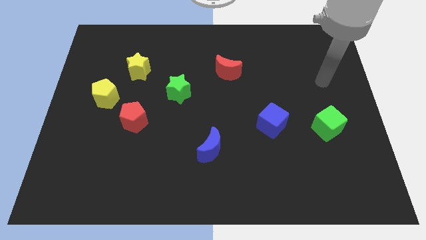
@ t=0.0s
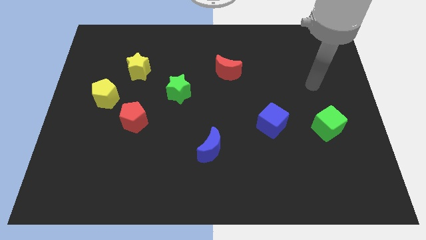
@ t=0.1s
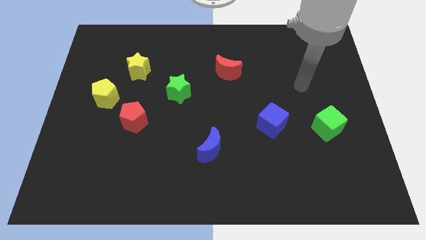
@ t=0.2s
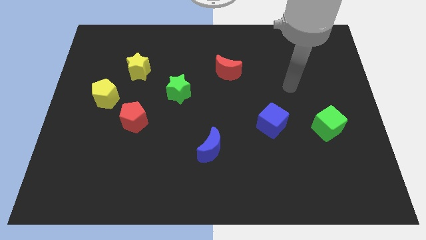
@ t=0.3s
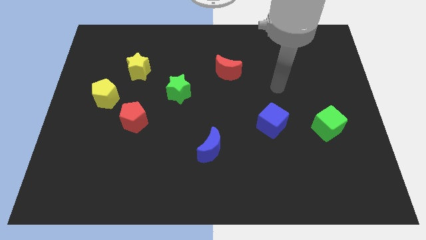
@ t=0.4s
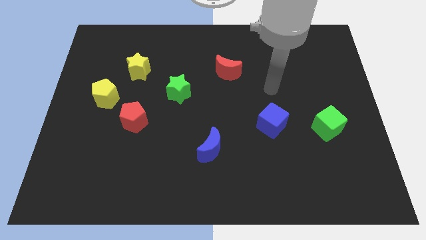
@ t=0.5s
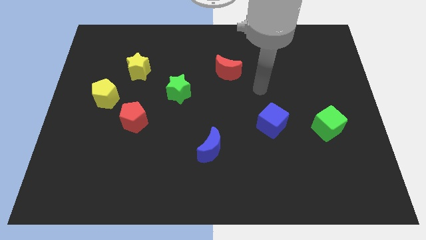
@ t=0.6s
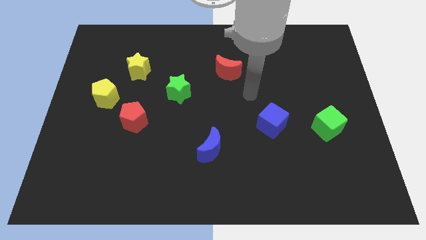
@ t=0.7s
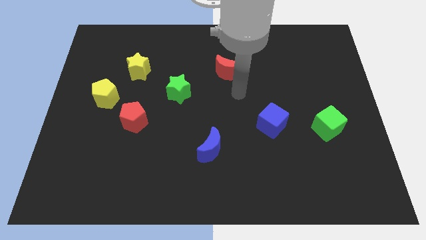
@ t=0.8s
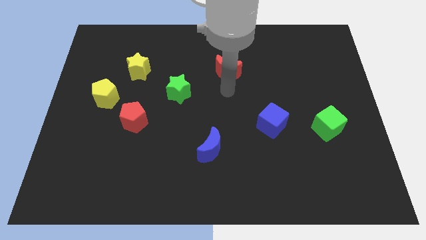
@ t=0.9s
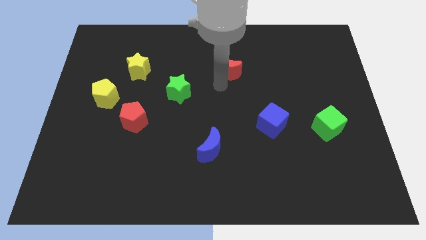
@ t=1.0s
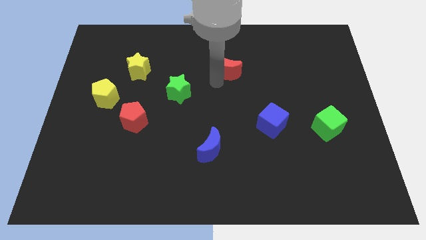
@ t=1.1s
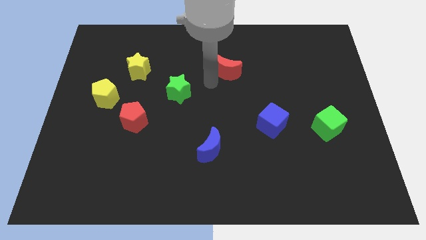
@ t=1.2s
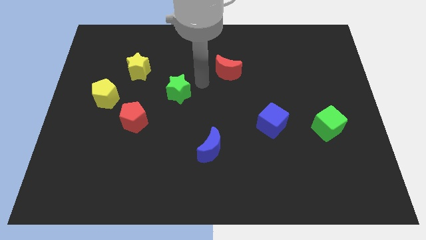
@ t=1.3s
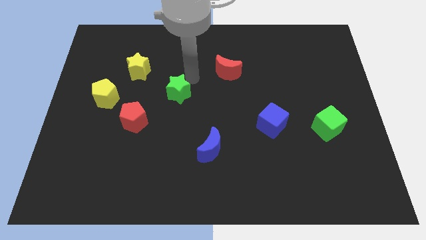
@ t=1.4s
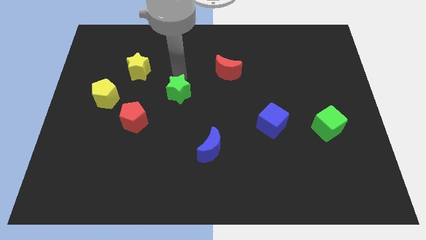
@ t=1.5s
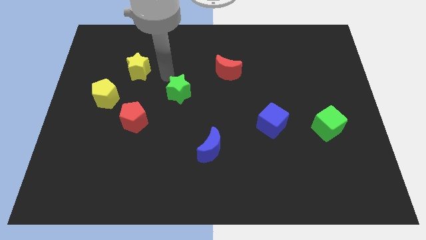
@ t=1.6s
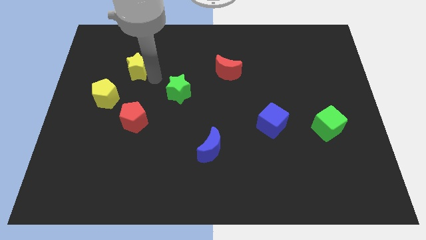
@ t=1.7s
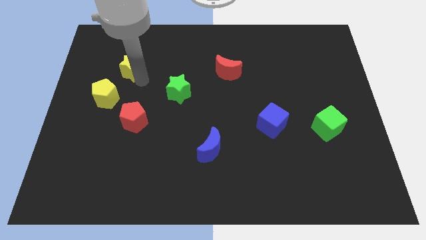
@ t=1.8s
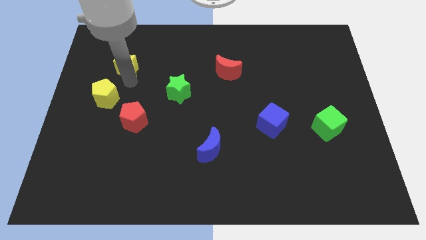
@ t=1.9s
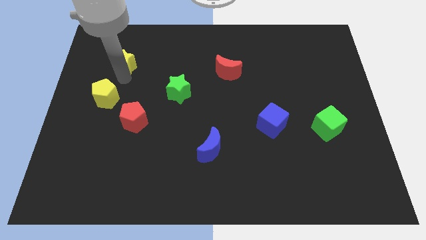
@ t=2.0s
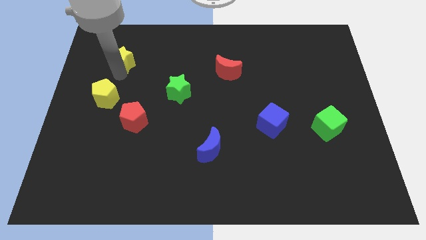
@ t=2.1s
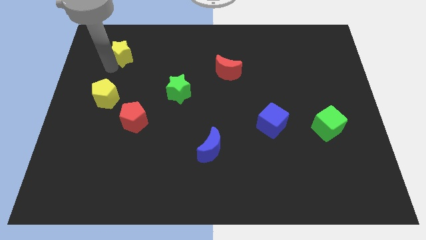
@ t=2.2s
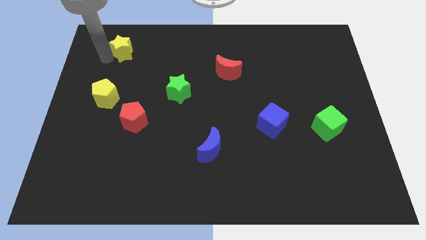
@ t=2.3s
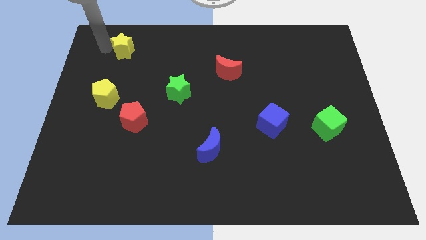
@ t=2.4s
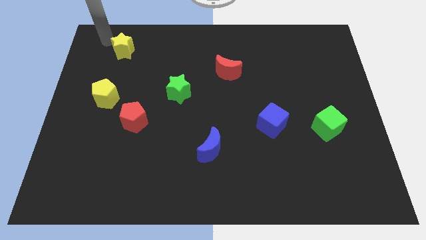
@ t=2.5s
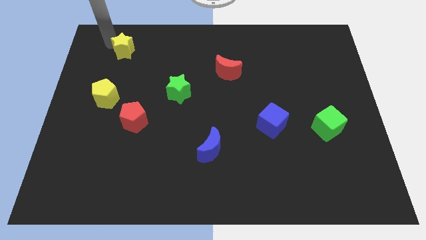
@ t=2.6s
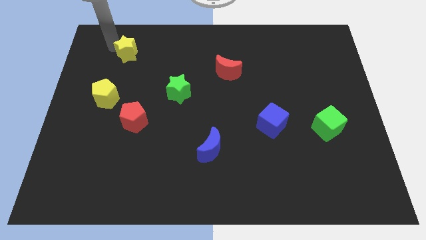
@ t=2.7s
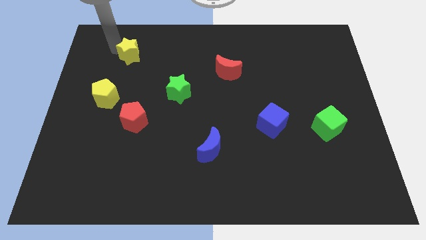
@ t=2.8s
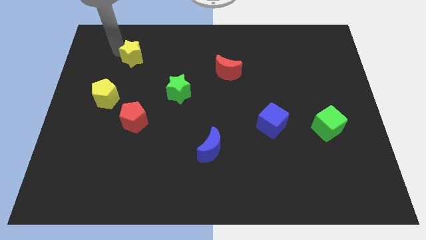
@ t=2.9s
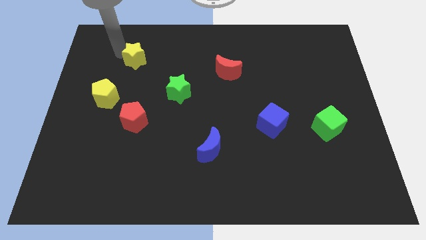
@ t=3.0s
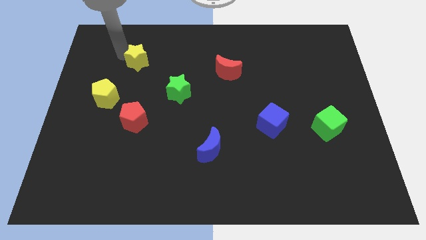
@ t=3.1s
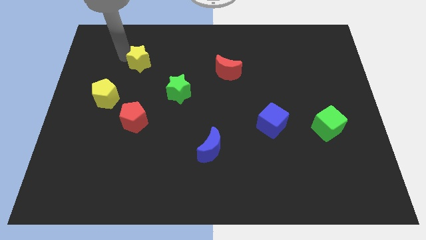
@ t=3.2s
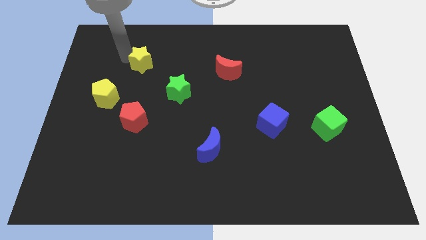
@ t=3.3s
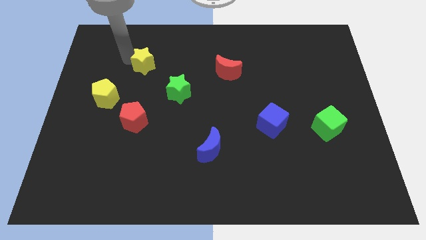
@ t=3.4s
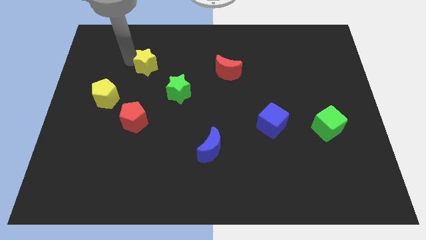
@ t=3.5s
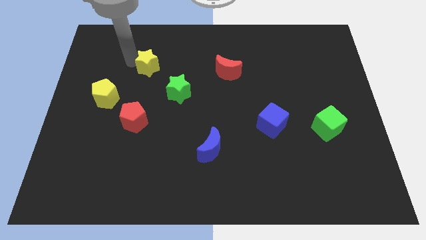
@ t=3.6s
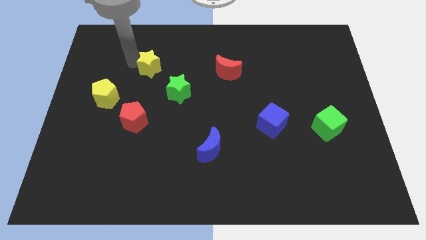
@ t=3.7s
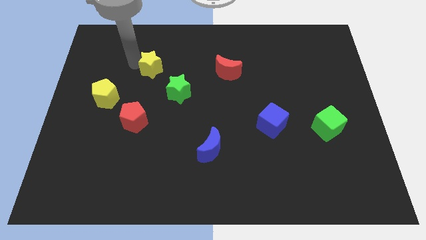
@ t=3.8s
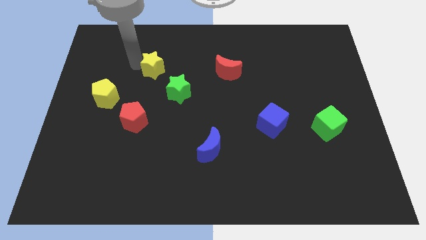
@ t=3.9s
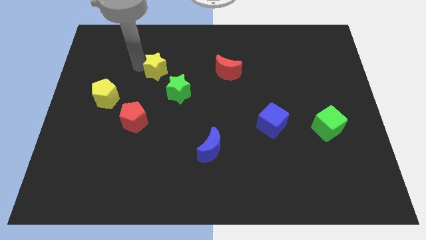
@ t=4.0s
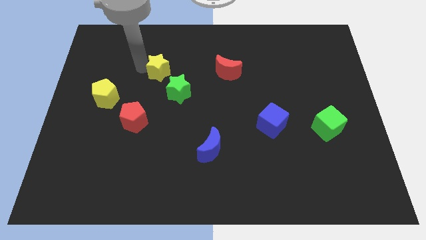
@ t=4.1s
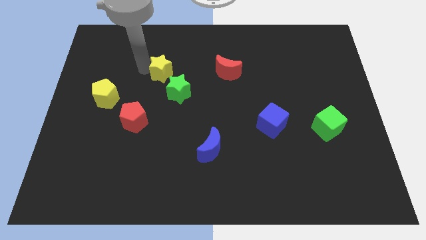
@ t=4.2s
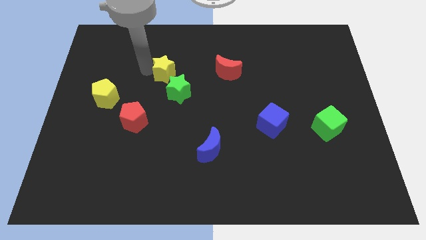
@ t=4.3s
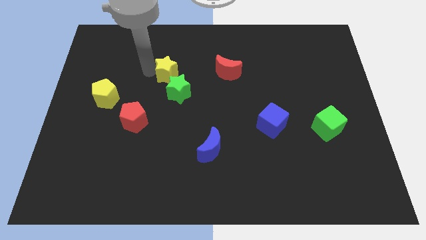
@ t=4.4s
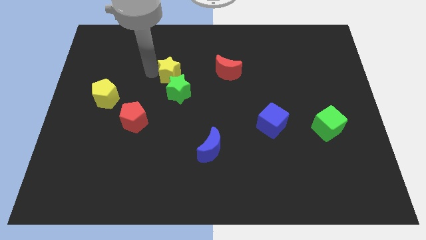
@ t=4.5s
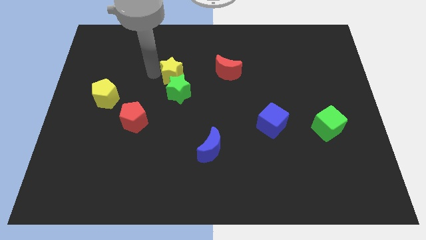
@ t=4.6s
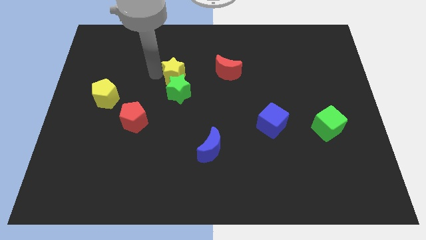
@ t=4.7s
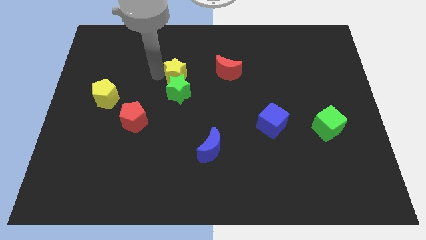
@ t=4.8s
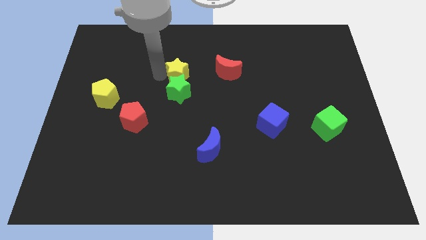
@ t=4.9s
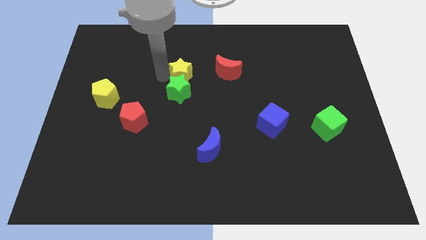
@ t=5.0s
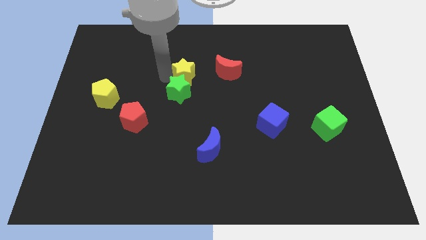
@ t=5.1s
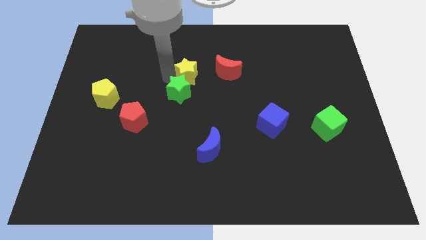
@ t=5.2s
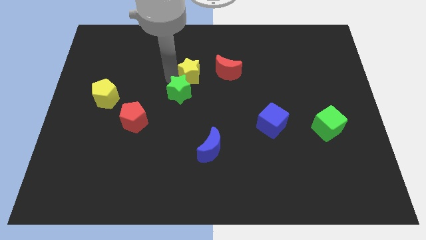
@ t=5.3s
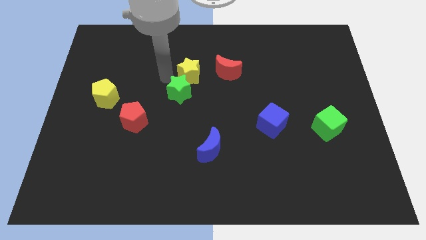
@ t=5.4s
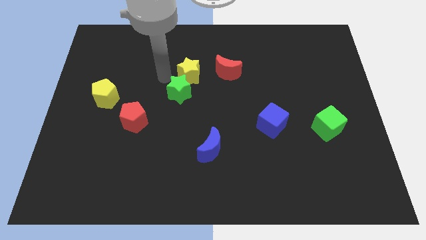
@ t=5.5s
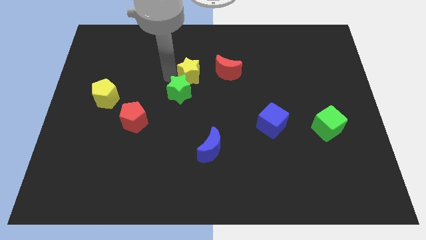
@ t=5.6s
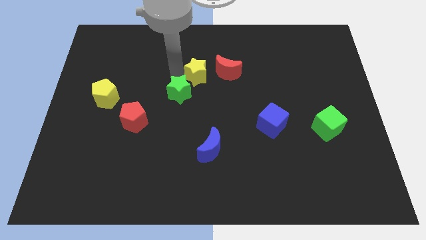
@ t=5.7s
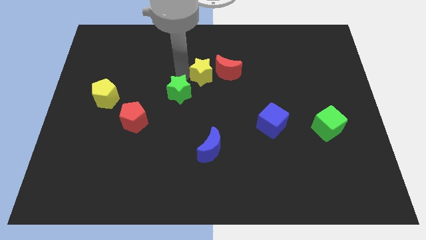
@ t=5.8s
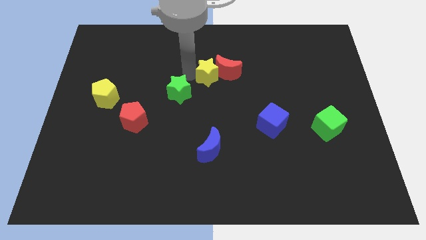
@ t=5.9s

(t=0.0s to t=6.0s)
move the yellow star close to the red moon

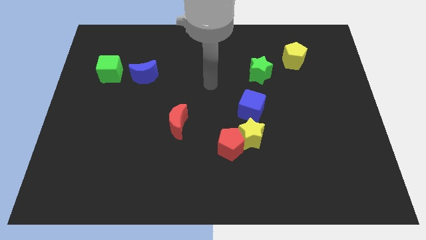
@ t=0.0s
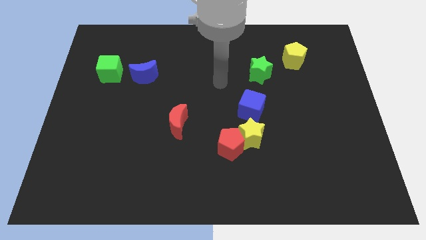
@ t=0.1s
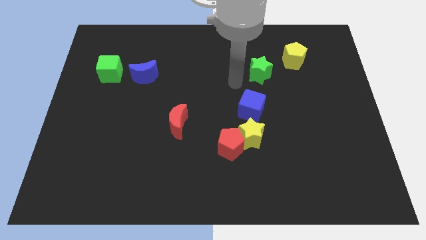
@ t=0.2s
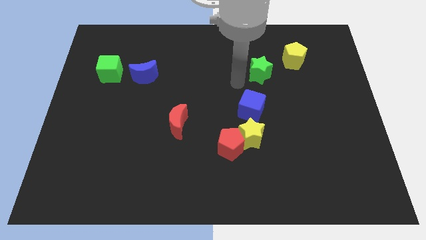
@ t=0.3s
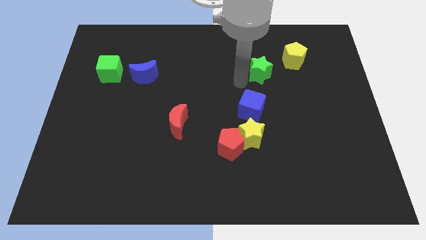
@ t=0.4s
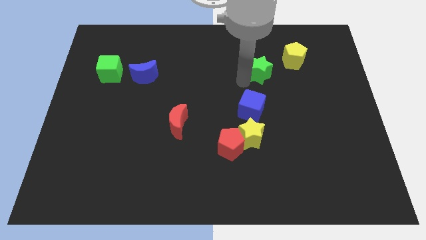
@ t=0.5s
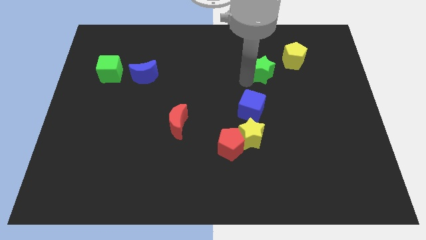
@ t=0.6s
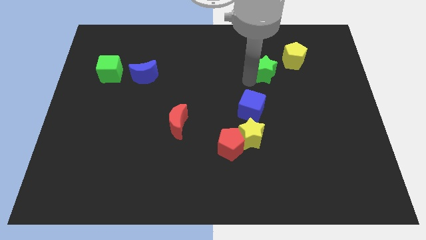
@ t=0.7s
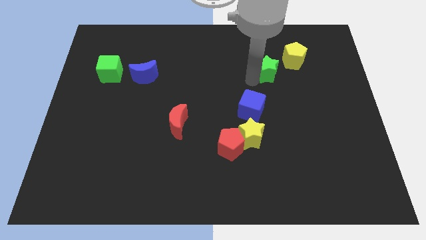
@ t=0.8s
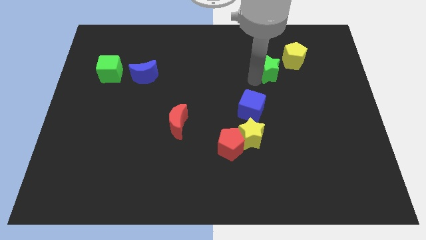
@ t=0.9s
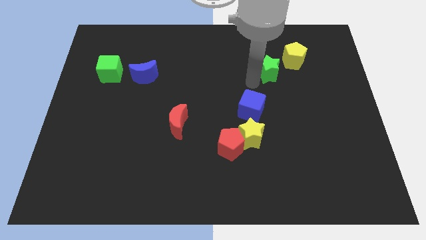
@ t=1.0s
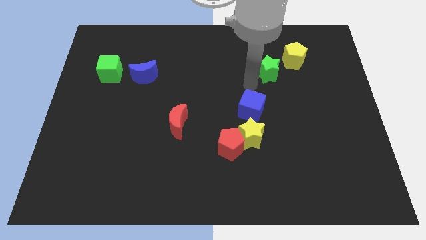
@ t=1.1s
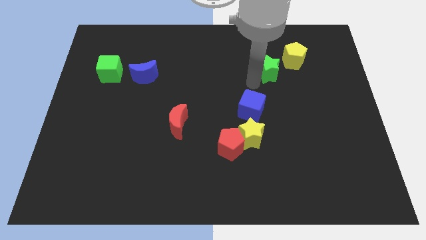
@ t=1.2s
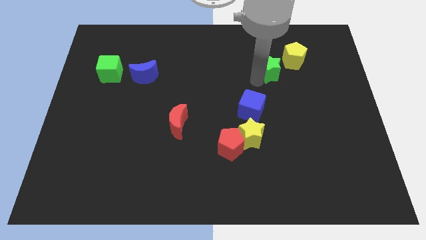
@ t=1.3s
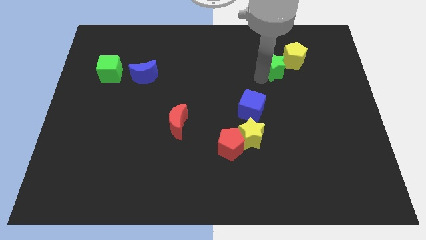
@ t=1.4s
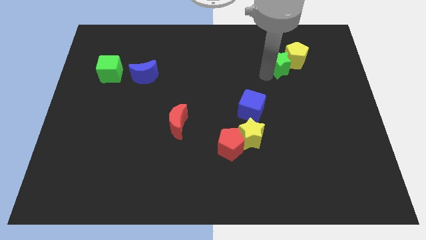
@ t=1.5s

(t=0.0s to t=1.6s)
push the green star next to the yellow pentagon
